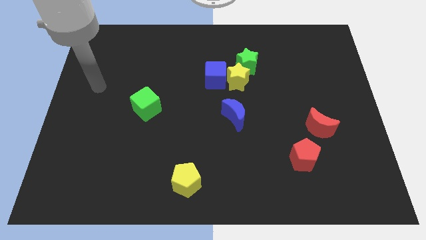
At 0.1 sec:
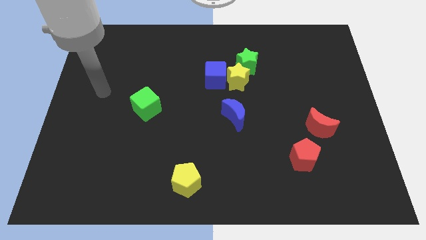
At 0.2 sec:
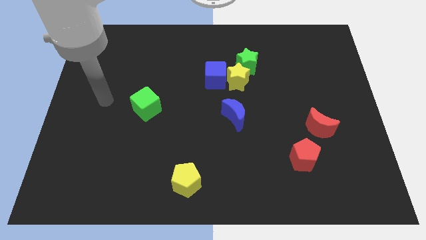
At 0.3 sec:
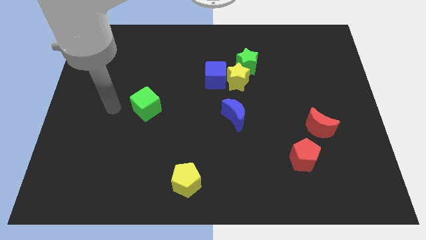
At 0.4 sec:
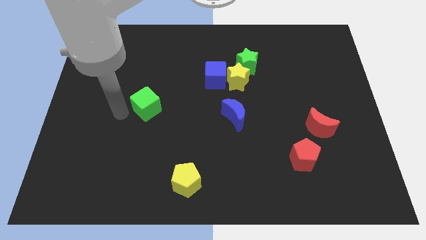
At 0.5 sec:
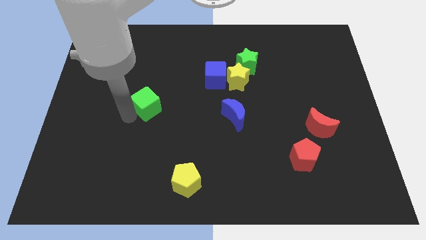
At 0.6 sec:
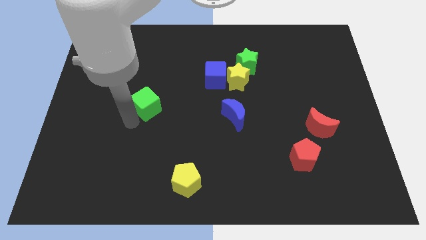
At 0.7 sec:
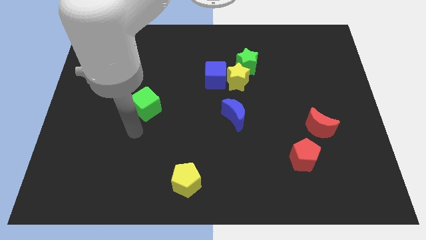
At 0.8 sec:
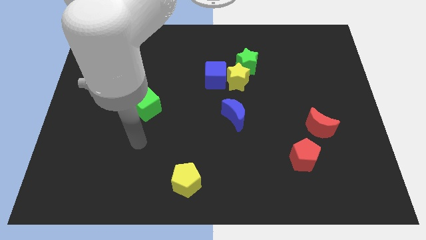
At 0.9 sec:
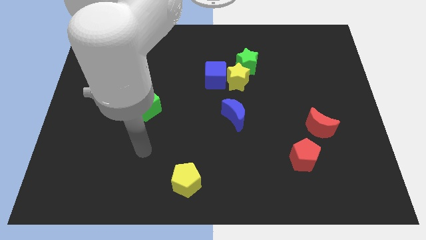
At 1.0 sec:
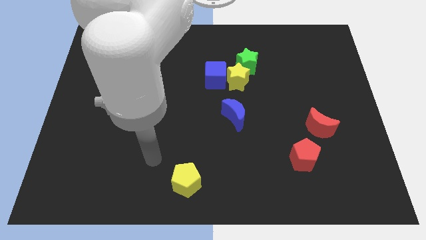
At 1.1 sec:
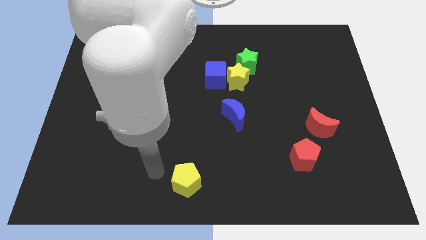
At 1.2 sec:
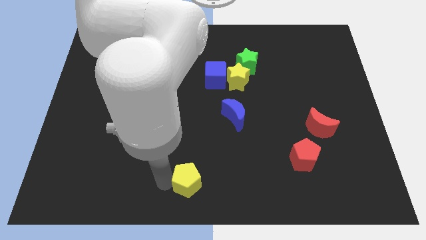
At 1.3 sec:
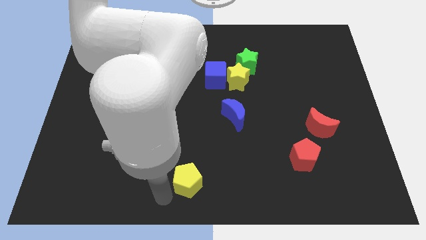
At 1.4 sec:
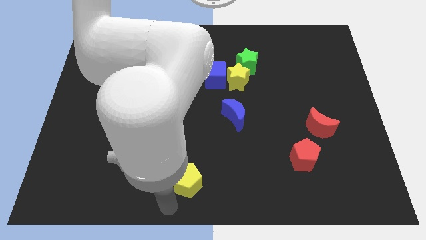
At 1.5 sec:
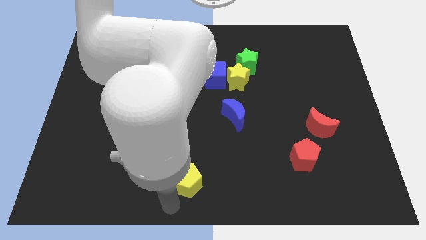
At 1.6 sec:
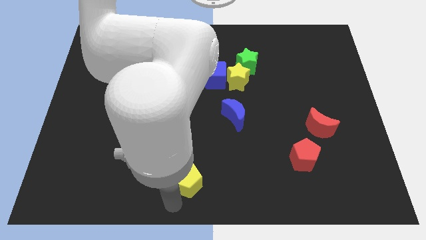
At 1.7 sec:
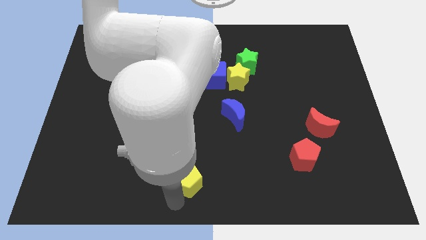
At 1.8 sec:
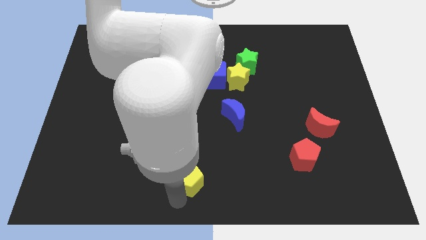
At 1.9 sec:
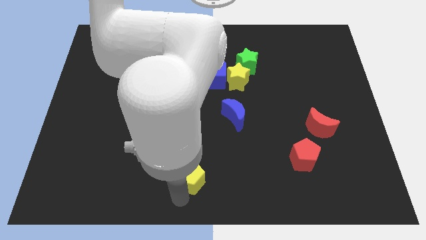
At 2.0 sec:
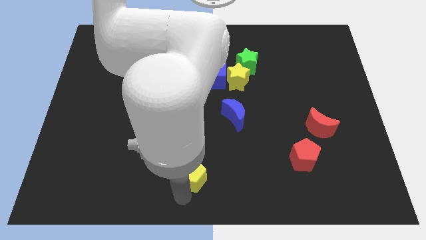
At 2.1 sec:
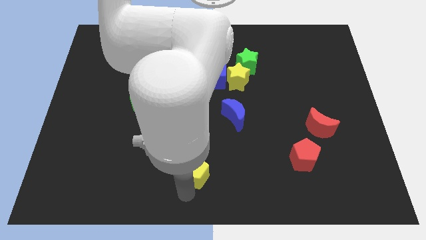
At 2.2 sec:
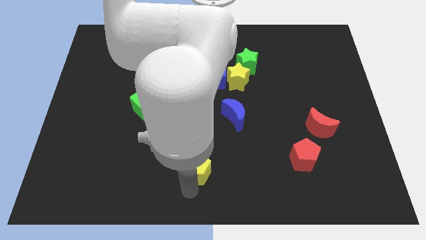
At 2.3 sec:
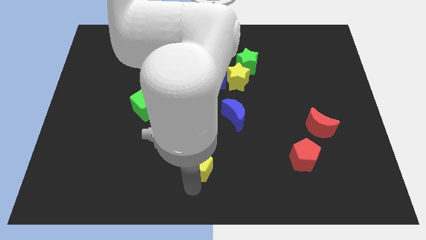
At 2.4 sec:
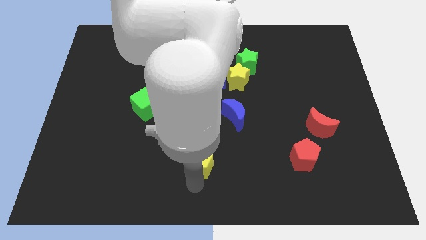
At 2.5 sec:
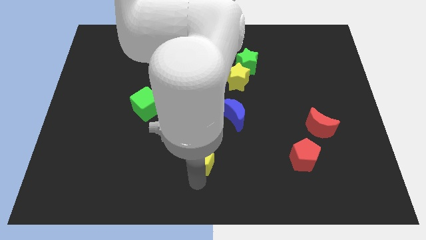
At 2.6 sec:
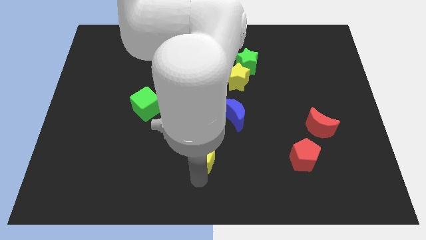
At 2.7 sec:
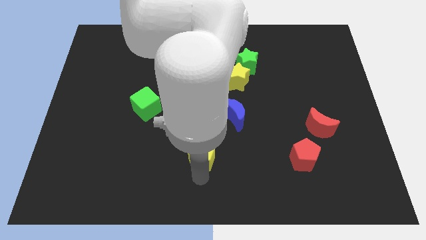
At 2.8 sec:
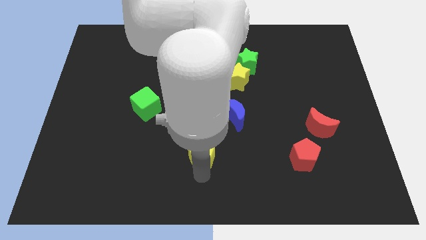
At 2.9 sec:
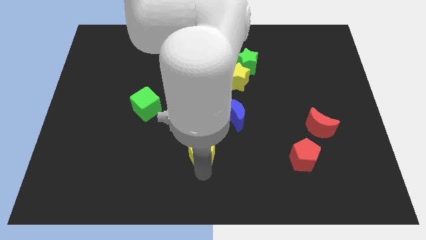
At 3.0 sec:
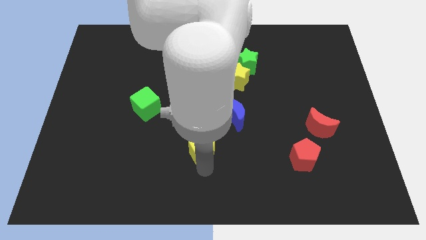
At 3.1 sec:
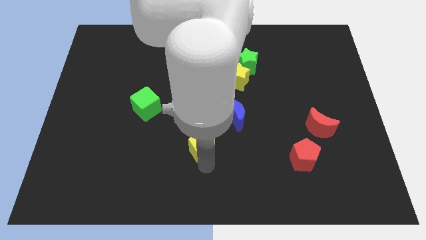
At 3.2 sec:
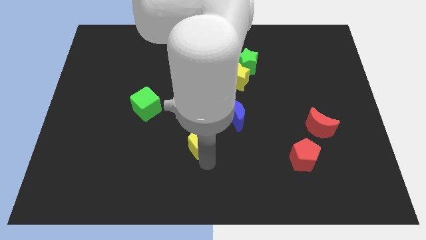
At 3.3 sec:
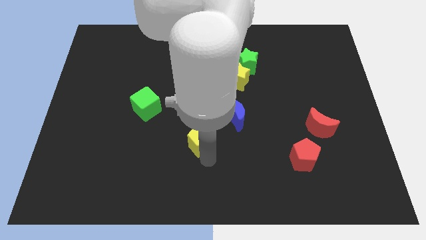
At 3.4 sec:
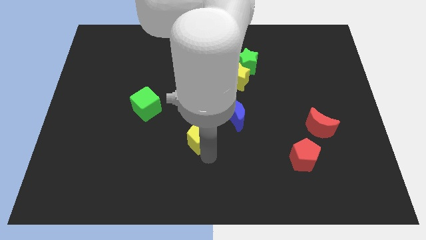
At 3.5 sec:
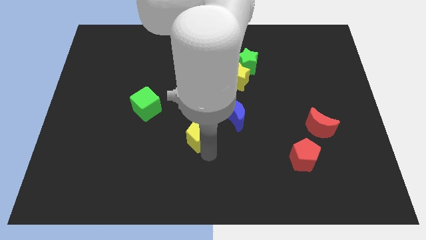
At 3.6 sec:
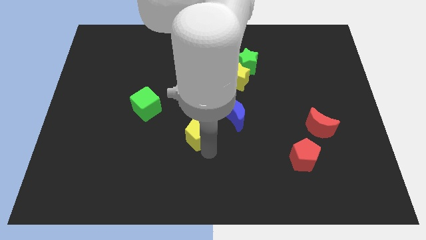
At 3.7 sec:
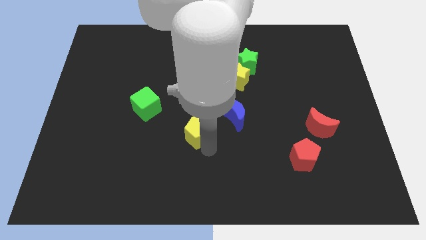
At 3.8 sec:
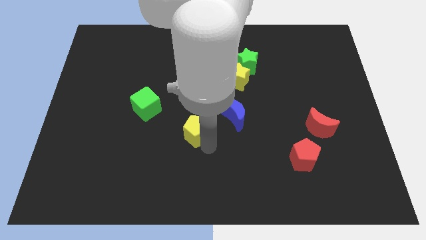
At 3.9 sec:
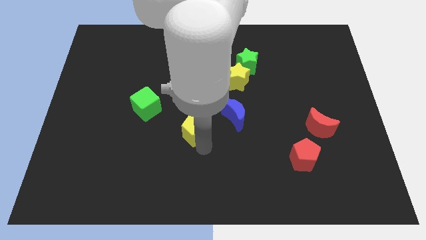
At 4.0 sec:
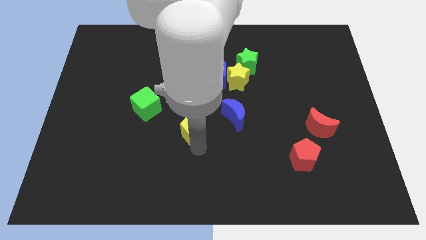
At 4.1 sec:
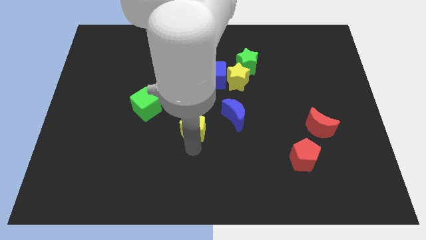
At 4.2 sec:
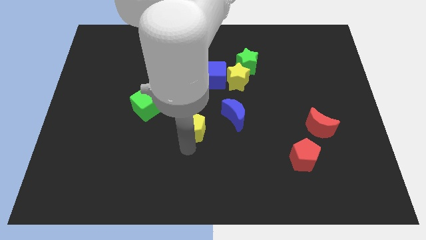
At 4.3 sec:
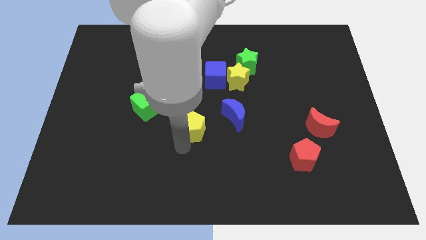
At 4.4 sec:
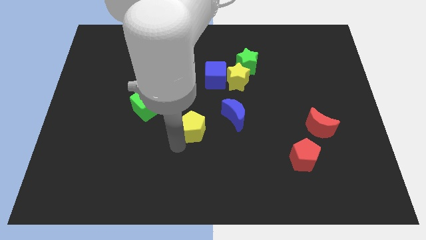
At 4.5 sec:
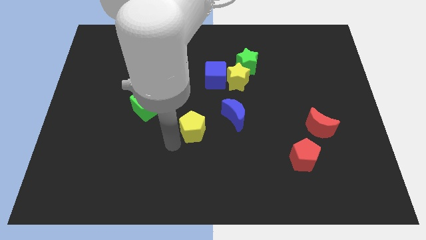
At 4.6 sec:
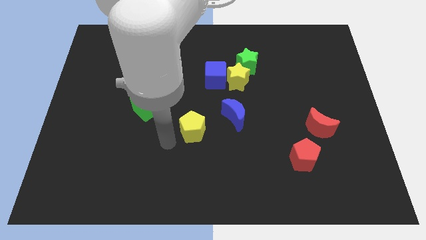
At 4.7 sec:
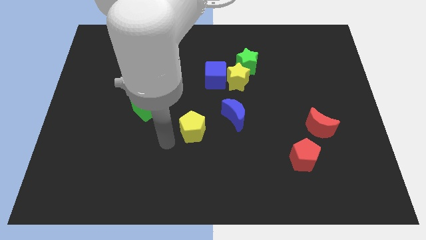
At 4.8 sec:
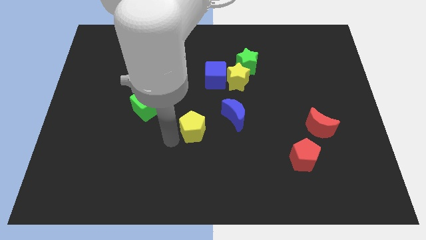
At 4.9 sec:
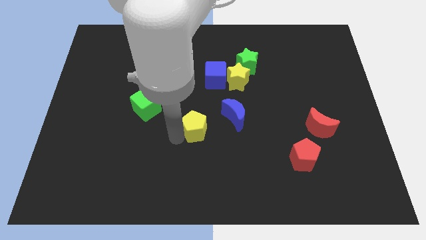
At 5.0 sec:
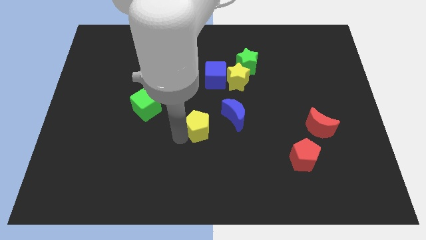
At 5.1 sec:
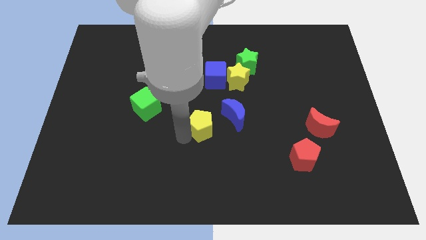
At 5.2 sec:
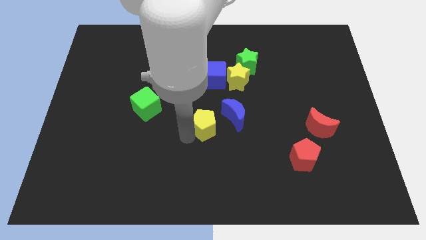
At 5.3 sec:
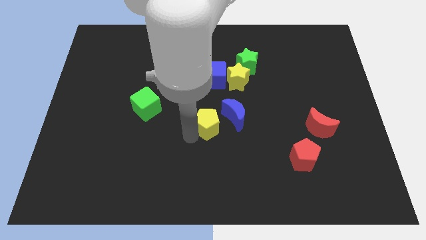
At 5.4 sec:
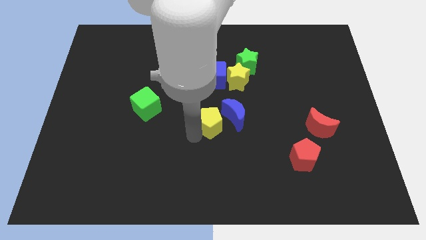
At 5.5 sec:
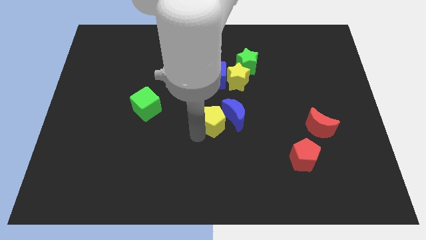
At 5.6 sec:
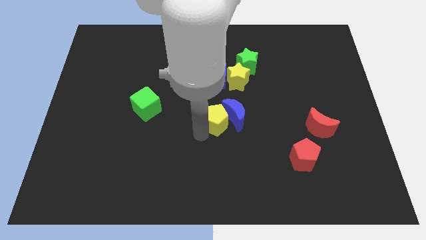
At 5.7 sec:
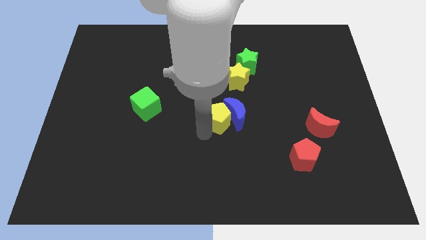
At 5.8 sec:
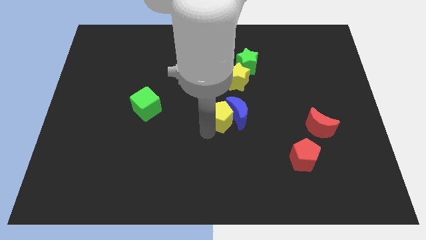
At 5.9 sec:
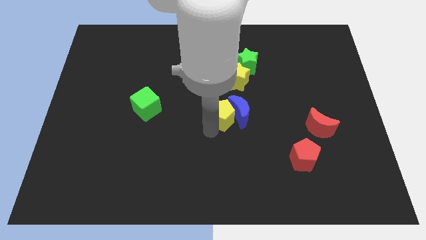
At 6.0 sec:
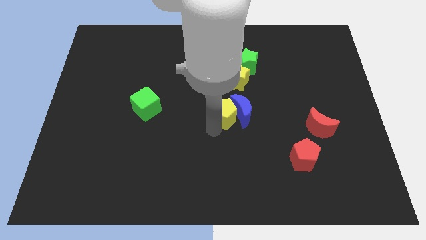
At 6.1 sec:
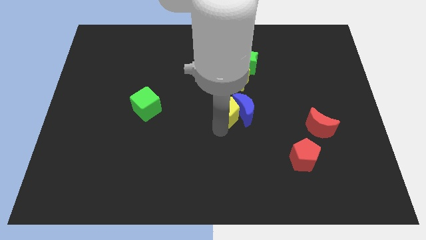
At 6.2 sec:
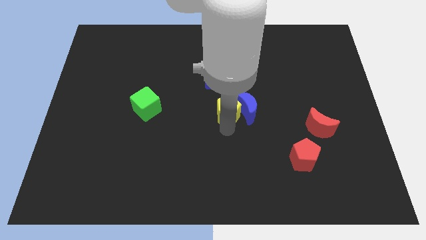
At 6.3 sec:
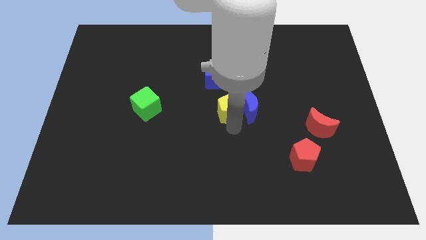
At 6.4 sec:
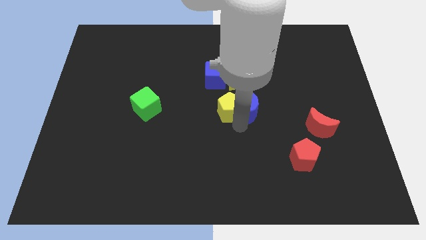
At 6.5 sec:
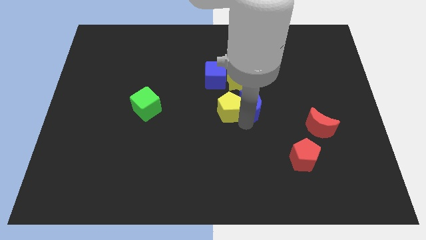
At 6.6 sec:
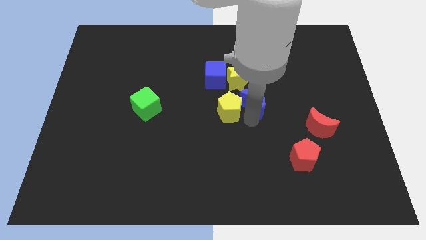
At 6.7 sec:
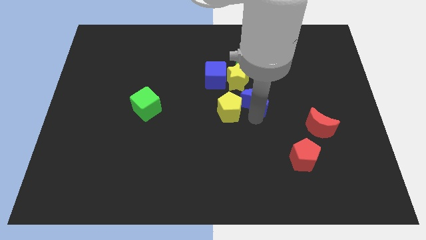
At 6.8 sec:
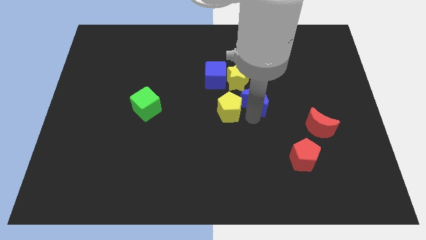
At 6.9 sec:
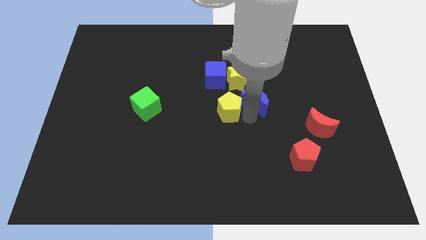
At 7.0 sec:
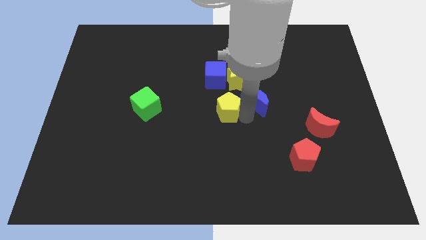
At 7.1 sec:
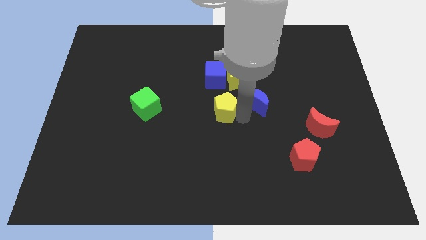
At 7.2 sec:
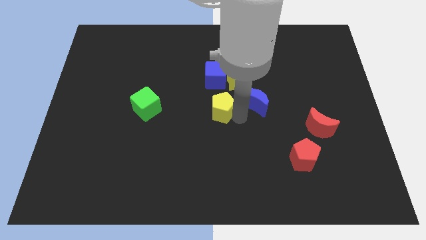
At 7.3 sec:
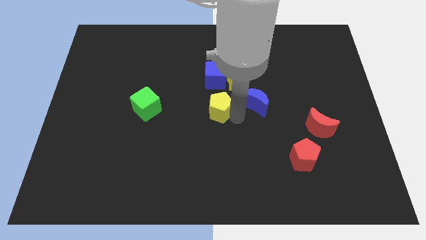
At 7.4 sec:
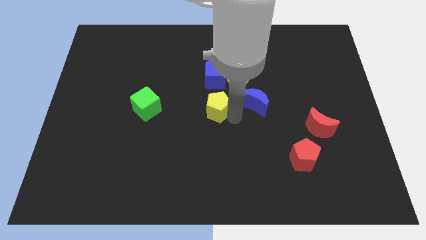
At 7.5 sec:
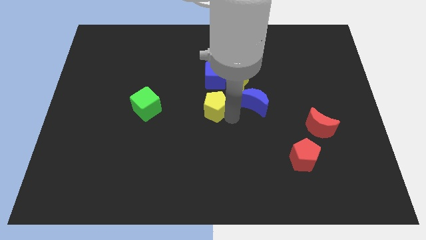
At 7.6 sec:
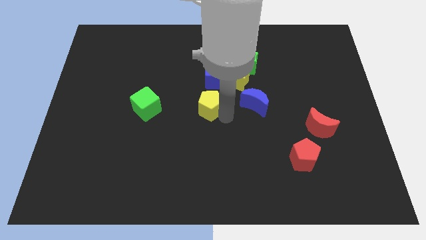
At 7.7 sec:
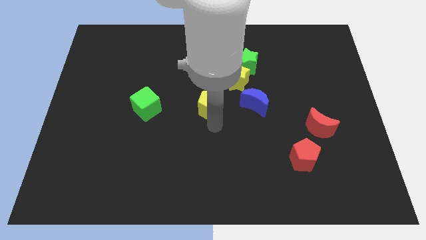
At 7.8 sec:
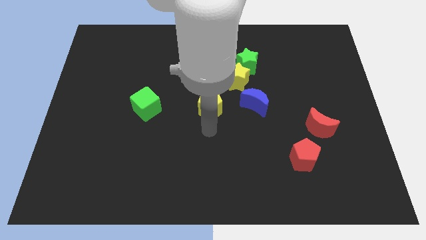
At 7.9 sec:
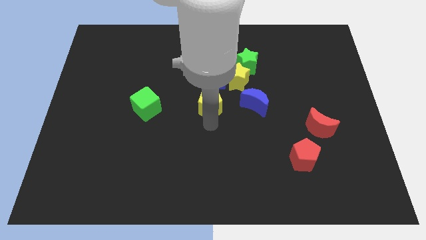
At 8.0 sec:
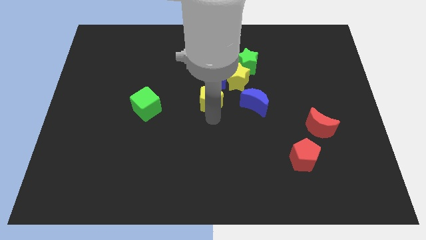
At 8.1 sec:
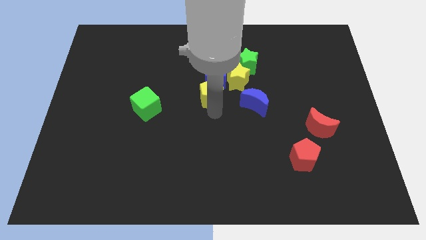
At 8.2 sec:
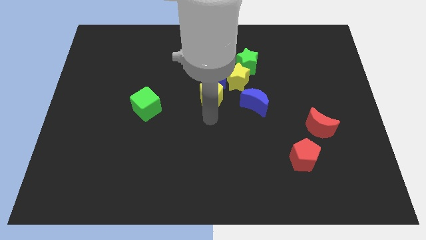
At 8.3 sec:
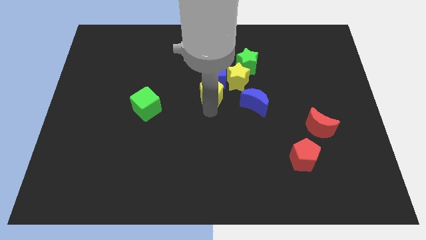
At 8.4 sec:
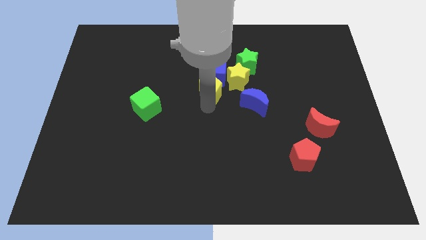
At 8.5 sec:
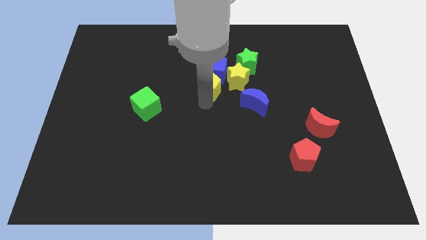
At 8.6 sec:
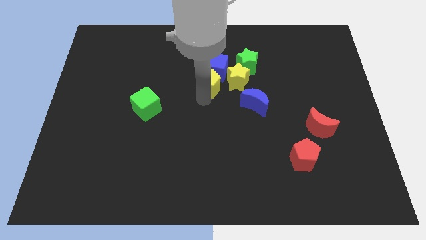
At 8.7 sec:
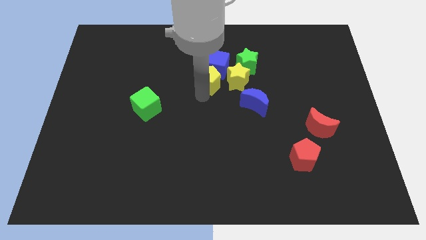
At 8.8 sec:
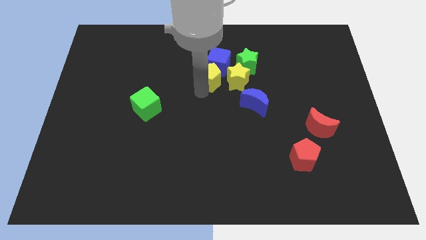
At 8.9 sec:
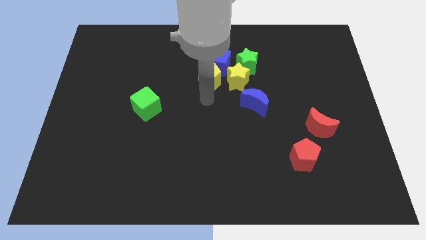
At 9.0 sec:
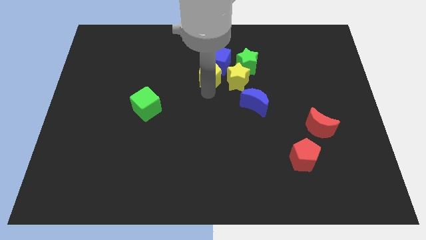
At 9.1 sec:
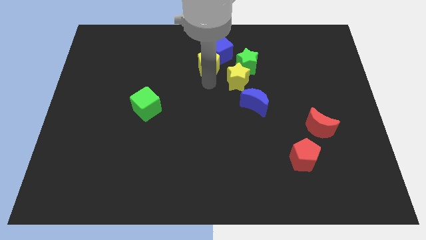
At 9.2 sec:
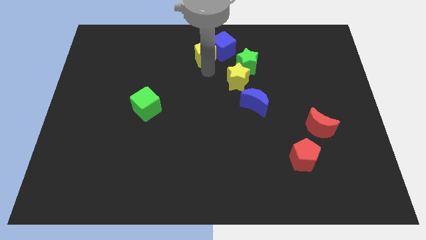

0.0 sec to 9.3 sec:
push the yellow pentagon to the top side
